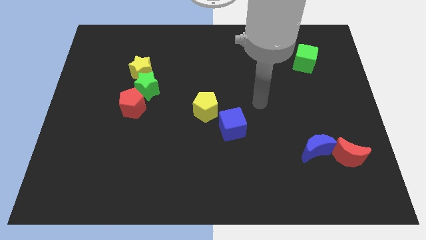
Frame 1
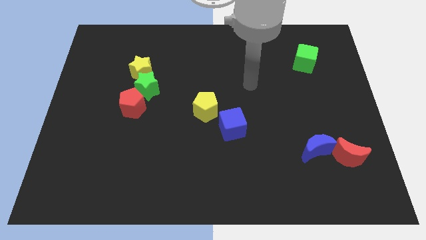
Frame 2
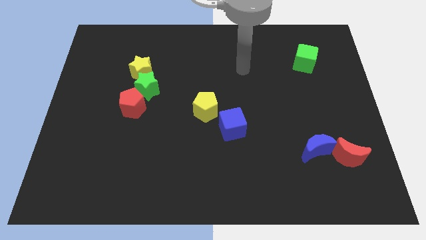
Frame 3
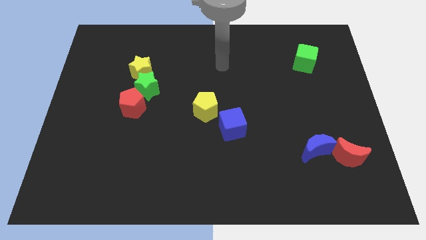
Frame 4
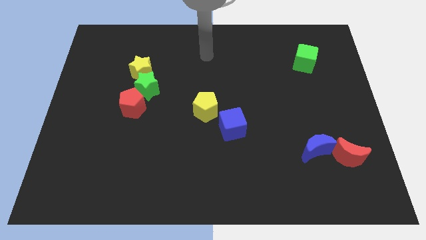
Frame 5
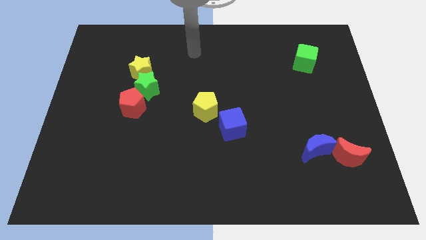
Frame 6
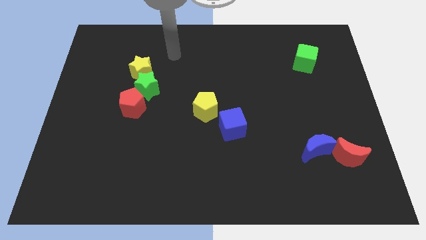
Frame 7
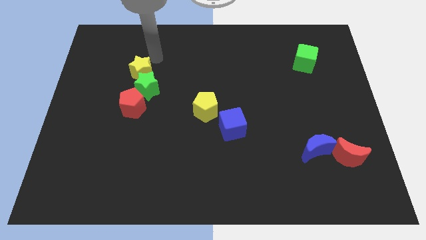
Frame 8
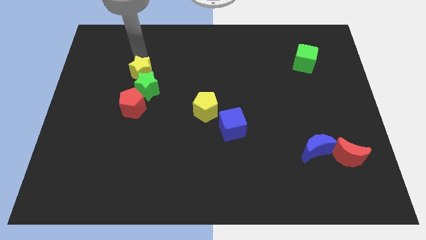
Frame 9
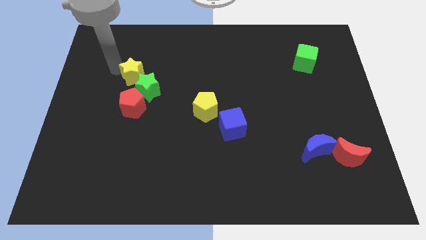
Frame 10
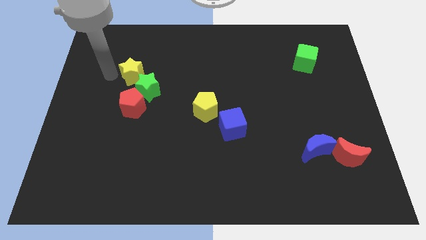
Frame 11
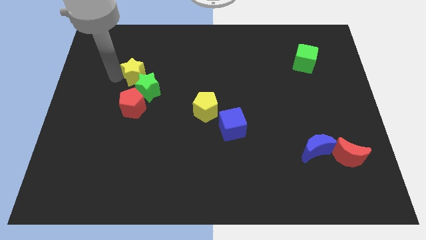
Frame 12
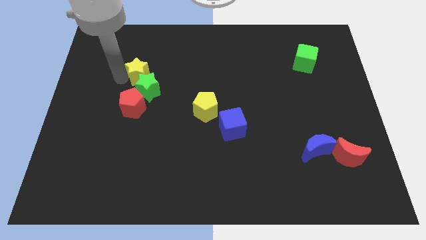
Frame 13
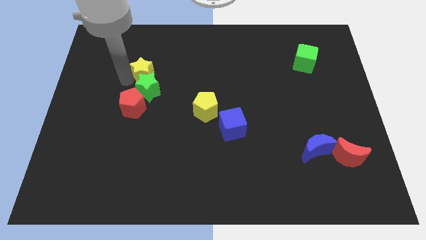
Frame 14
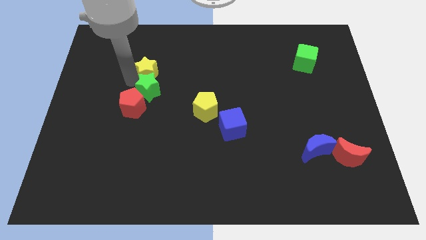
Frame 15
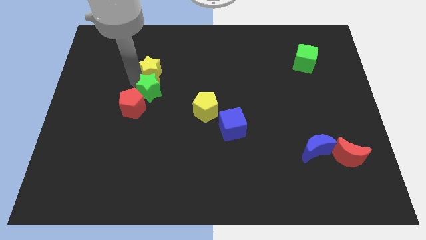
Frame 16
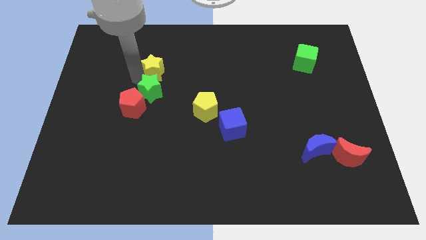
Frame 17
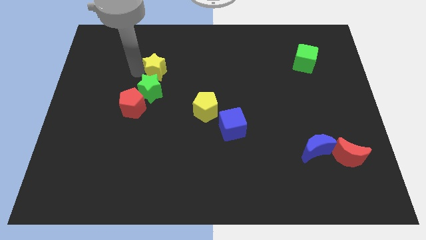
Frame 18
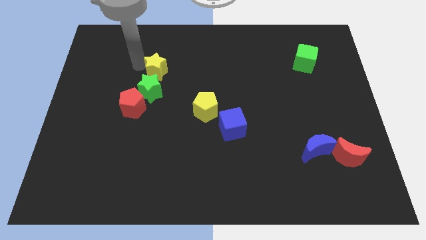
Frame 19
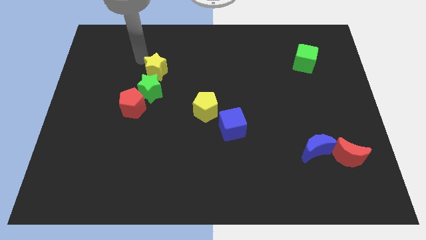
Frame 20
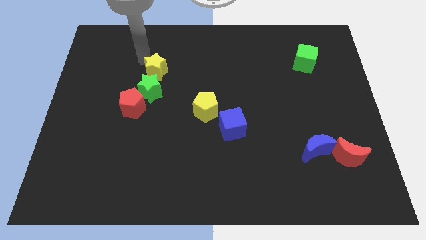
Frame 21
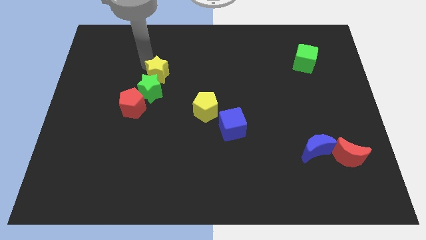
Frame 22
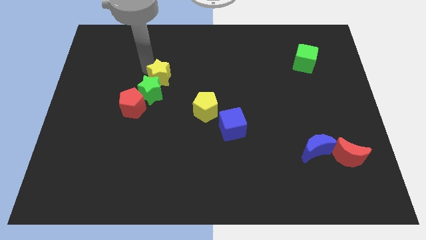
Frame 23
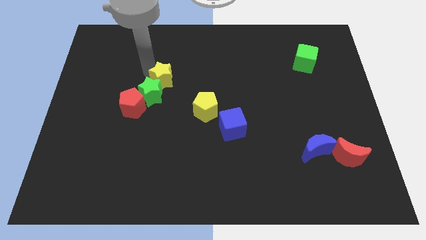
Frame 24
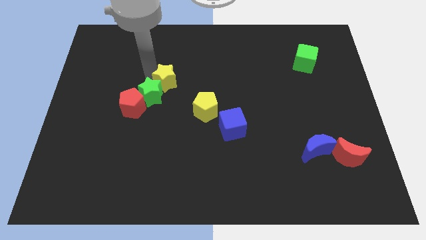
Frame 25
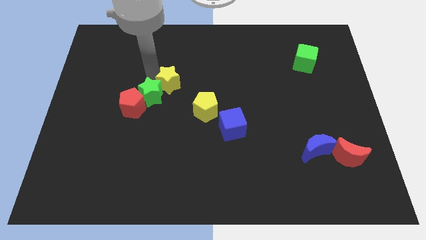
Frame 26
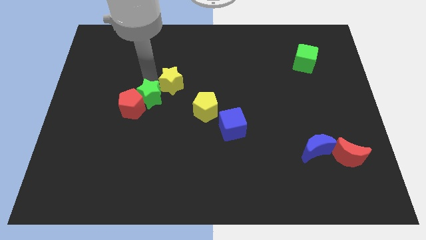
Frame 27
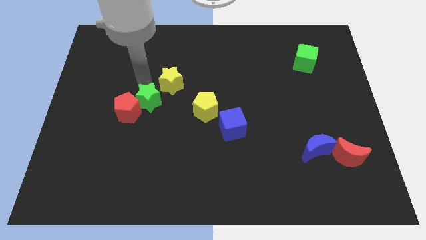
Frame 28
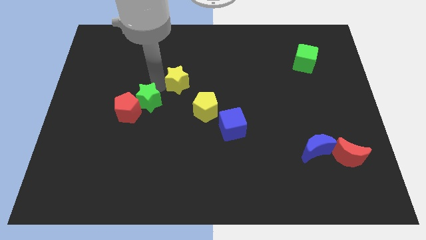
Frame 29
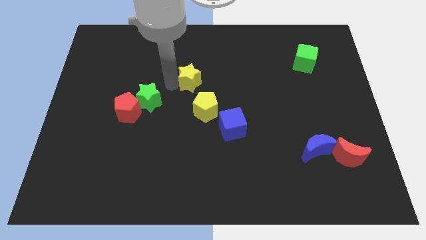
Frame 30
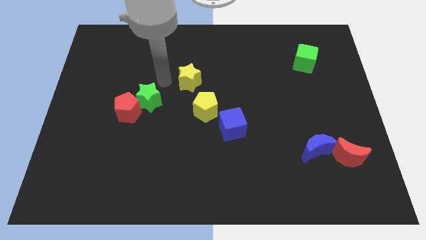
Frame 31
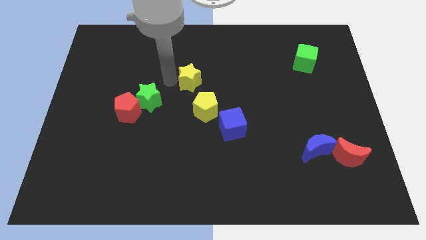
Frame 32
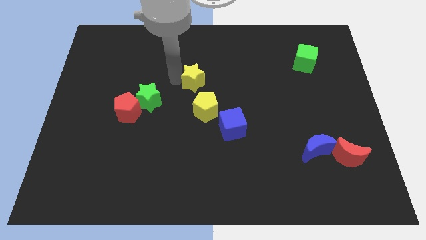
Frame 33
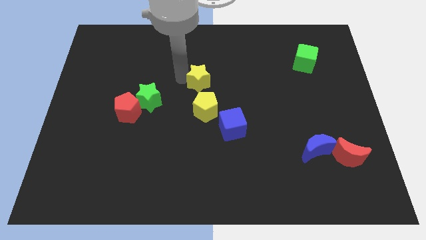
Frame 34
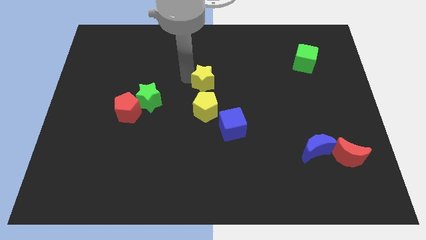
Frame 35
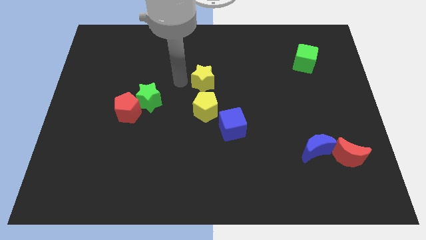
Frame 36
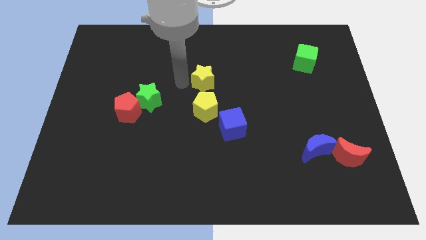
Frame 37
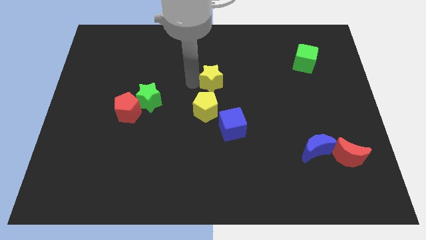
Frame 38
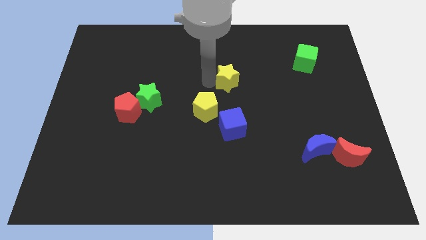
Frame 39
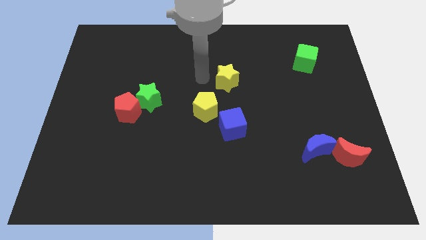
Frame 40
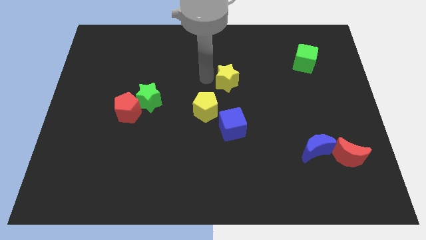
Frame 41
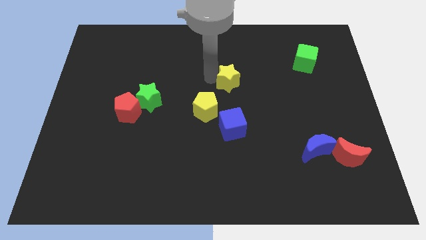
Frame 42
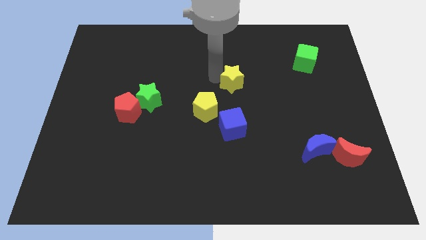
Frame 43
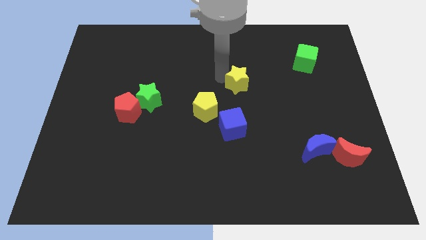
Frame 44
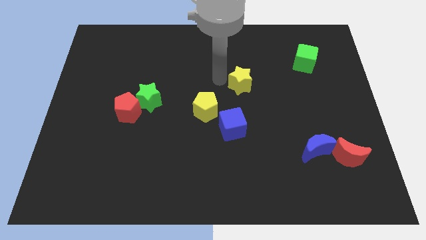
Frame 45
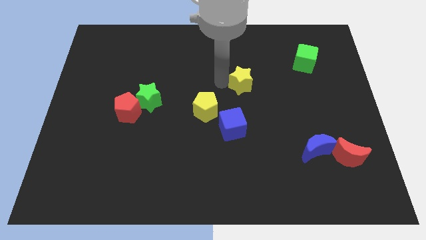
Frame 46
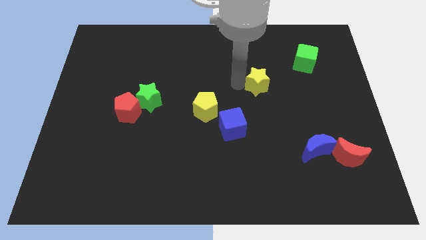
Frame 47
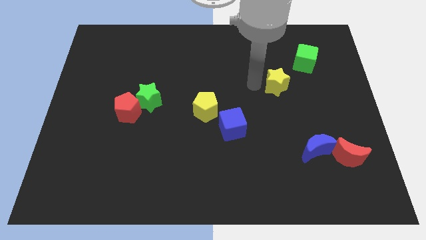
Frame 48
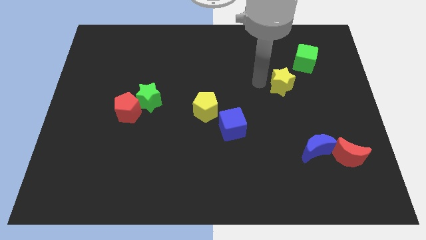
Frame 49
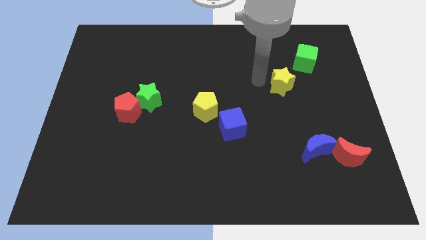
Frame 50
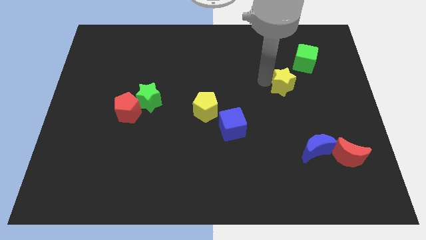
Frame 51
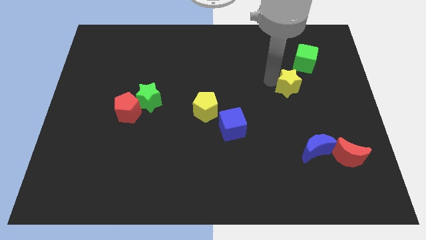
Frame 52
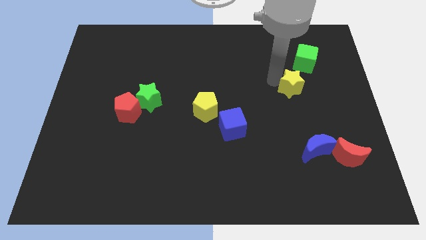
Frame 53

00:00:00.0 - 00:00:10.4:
slide the yellow star to the bottom of the green cube

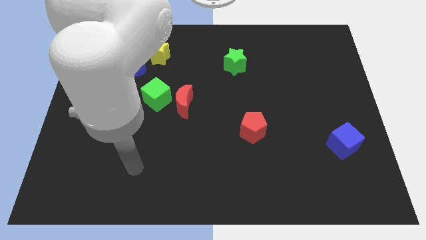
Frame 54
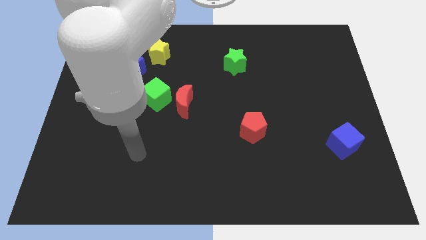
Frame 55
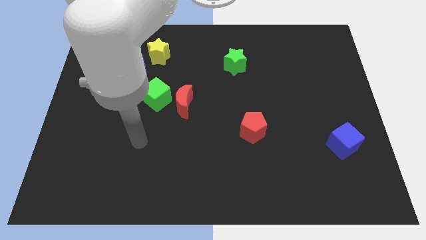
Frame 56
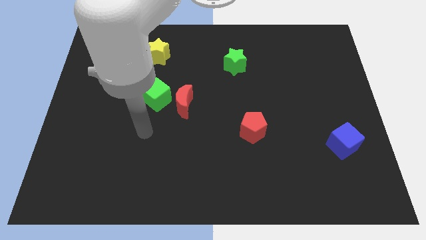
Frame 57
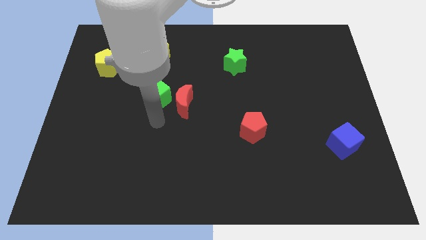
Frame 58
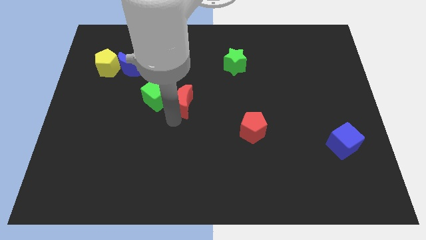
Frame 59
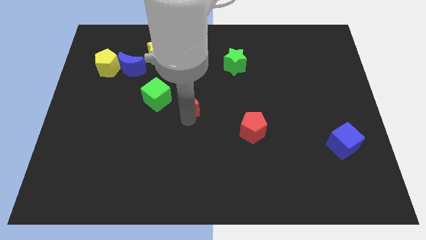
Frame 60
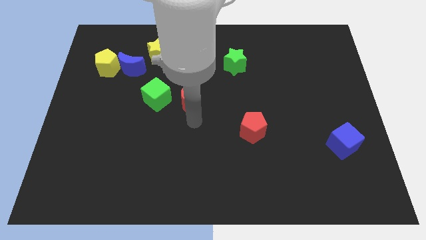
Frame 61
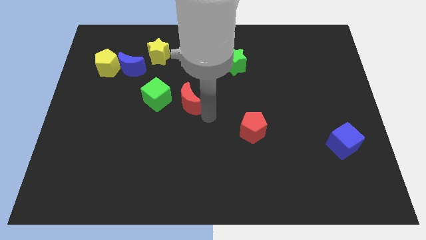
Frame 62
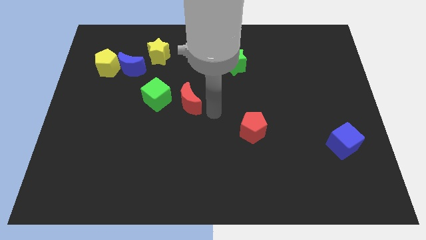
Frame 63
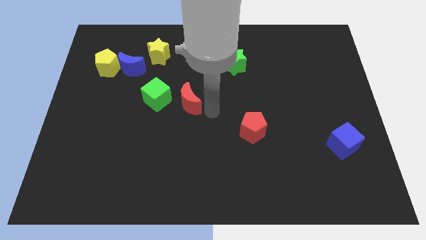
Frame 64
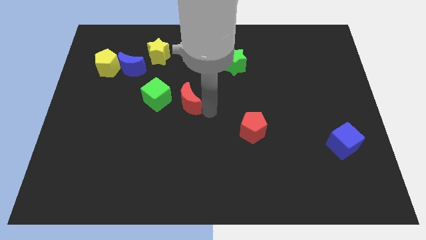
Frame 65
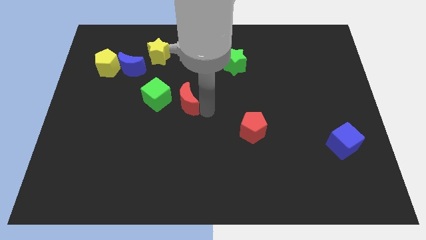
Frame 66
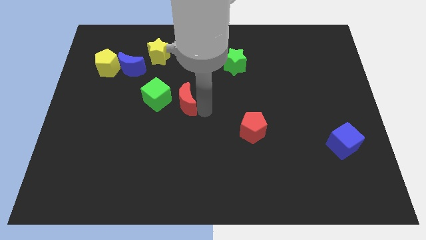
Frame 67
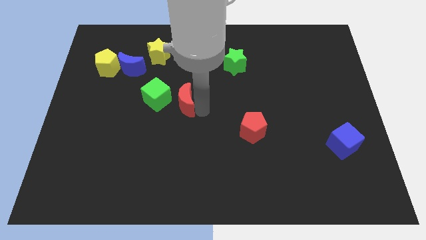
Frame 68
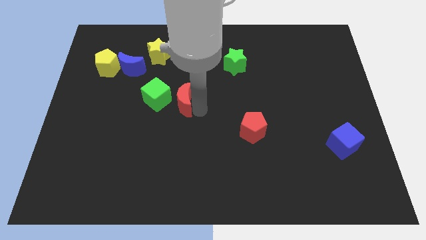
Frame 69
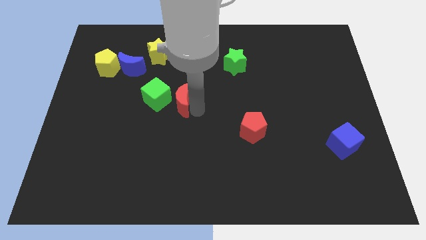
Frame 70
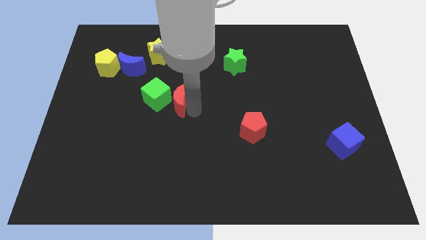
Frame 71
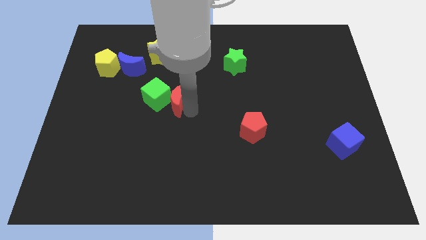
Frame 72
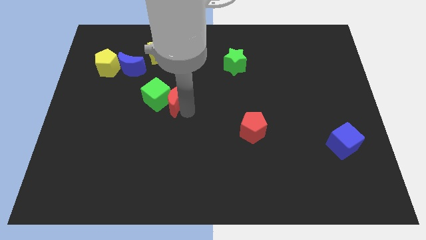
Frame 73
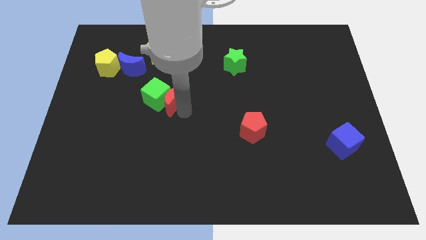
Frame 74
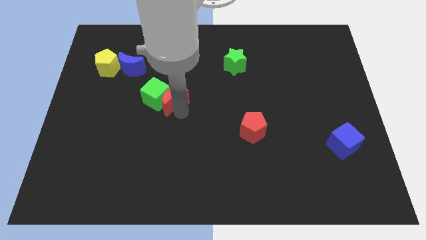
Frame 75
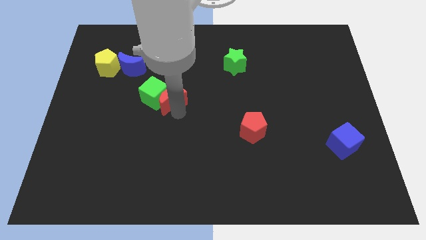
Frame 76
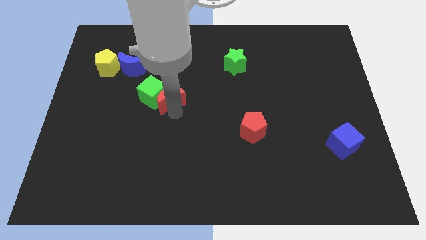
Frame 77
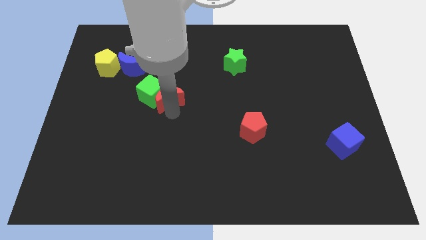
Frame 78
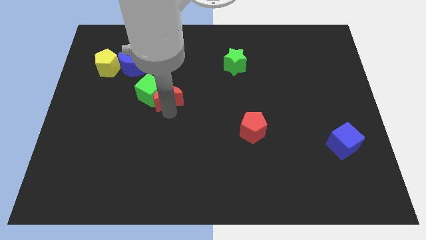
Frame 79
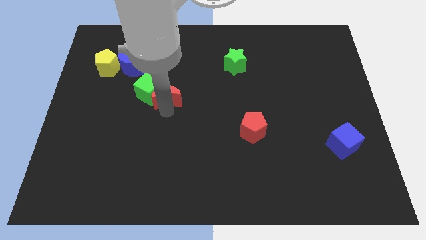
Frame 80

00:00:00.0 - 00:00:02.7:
move the red moon below the yellow star
